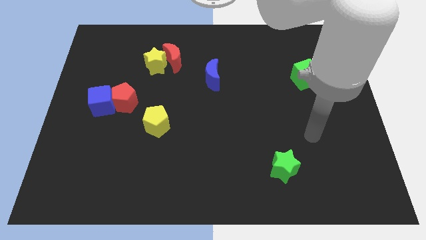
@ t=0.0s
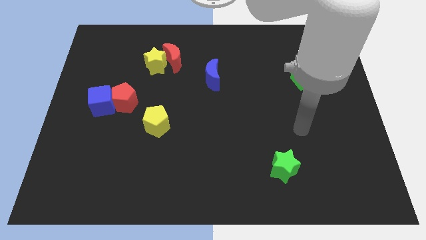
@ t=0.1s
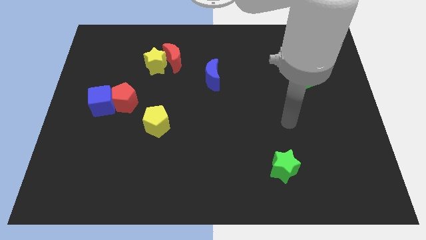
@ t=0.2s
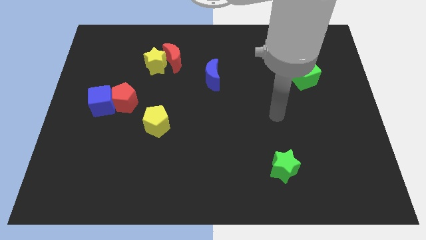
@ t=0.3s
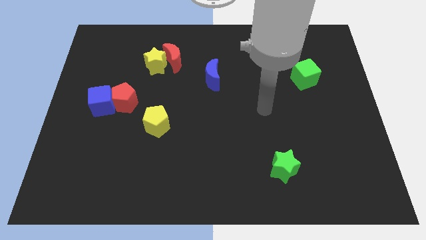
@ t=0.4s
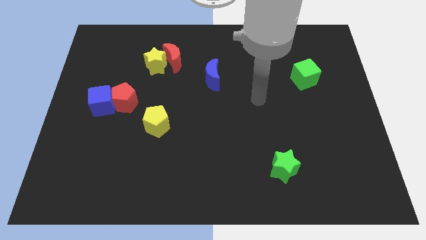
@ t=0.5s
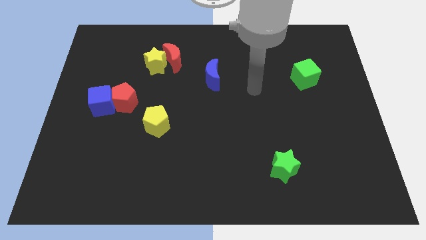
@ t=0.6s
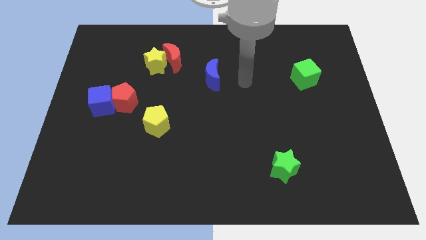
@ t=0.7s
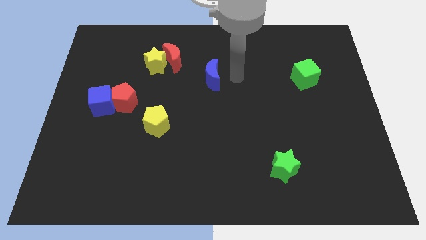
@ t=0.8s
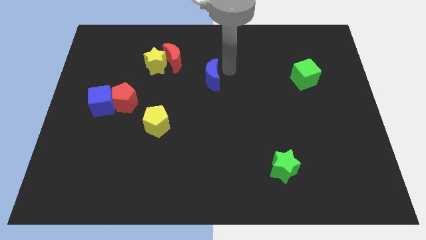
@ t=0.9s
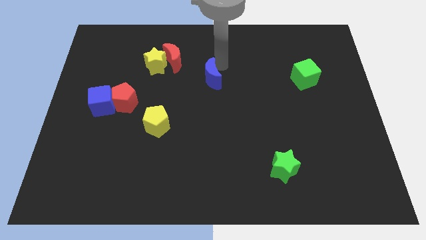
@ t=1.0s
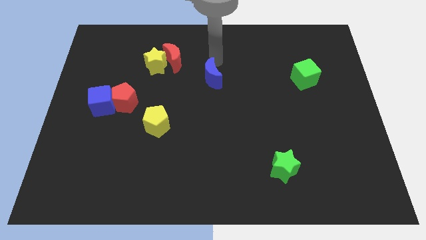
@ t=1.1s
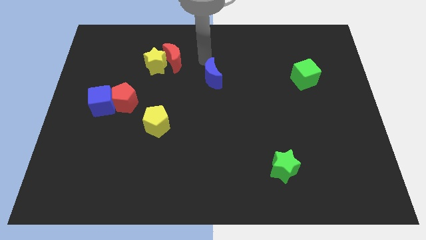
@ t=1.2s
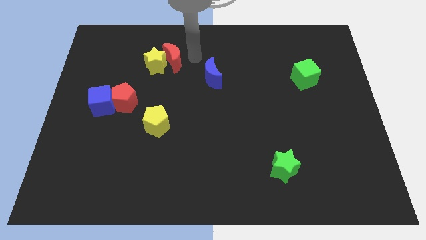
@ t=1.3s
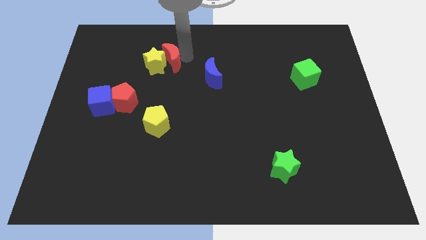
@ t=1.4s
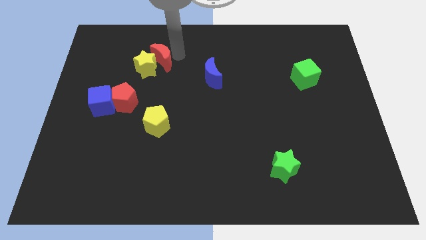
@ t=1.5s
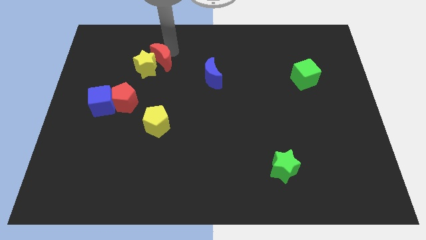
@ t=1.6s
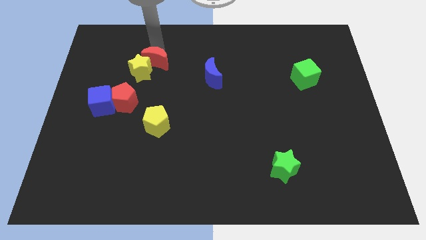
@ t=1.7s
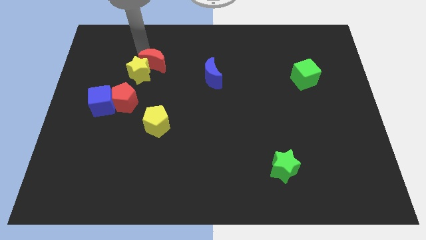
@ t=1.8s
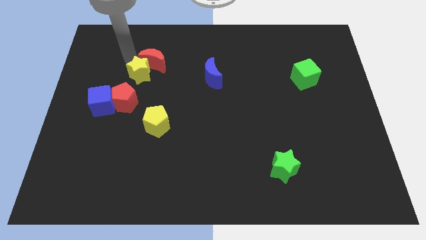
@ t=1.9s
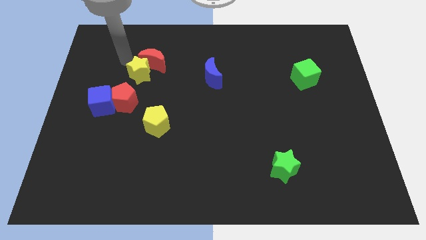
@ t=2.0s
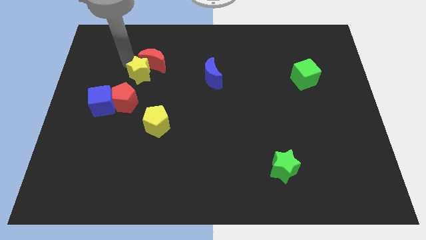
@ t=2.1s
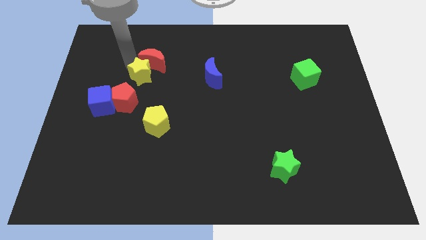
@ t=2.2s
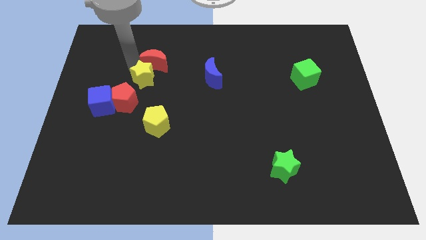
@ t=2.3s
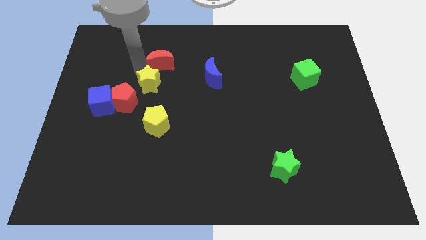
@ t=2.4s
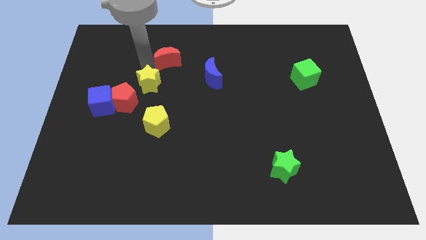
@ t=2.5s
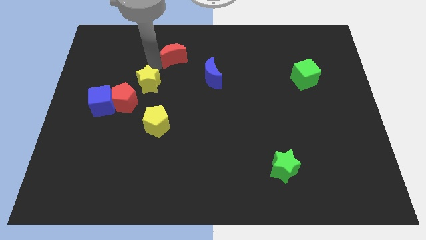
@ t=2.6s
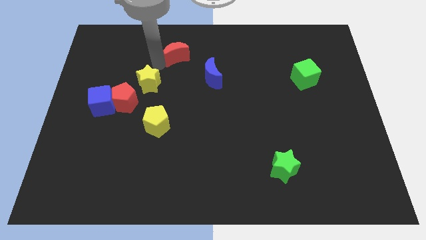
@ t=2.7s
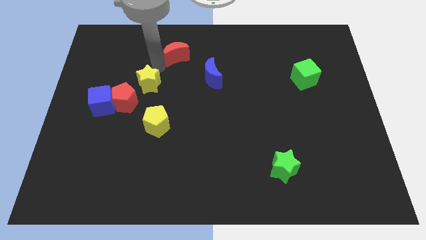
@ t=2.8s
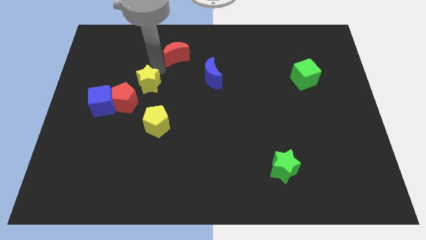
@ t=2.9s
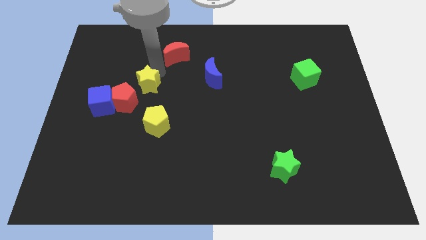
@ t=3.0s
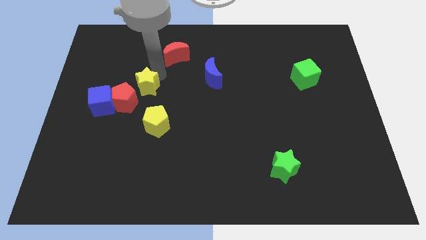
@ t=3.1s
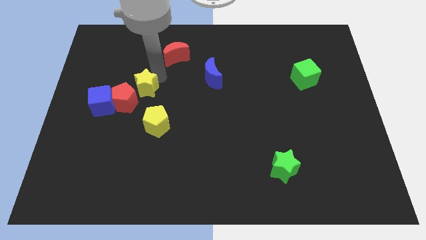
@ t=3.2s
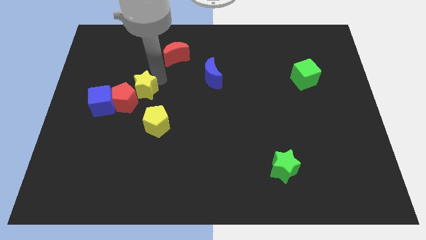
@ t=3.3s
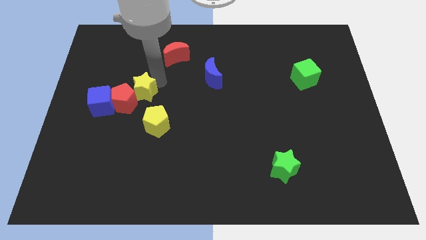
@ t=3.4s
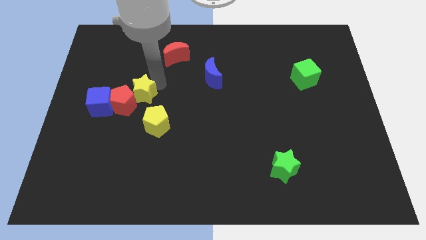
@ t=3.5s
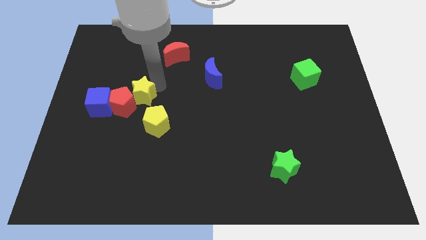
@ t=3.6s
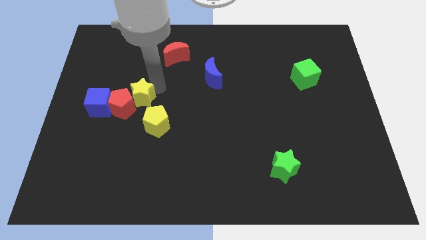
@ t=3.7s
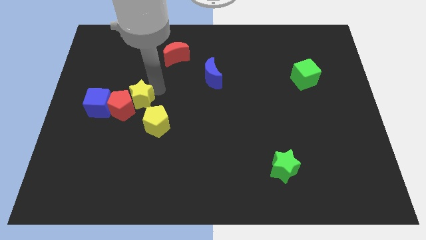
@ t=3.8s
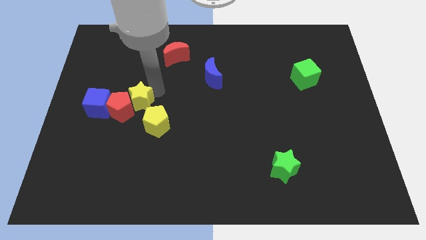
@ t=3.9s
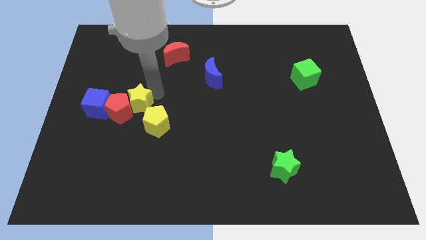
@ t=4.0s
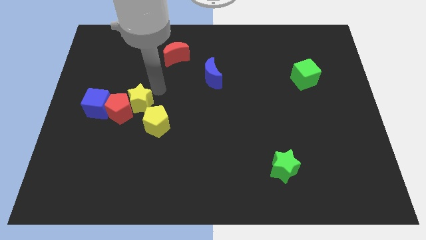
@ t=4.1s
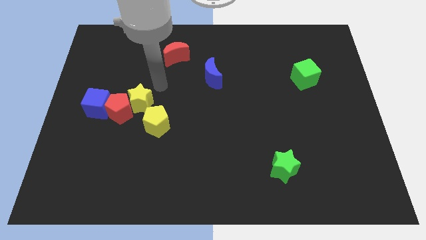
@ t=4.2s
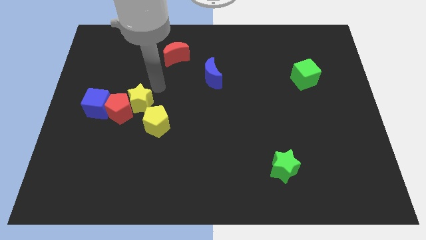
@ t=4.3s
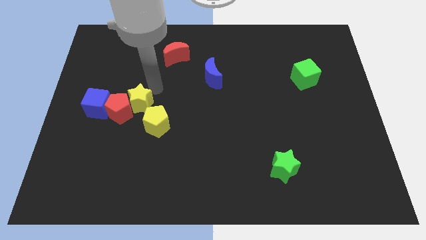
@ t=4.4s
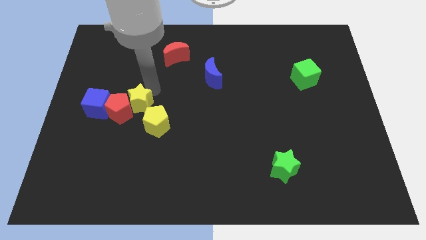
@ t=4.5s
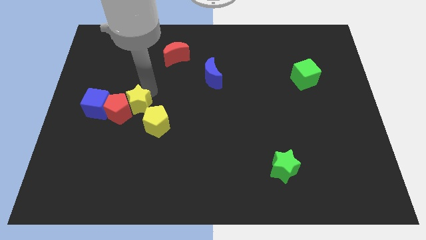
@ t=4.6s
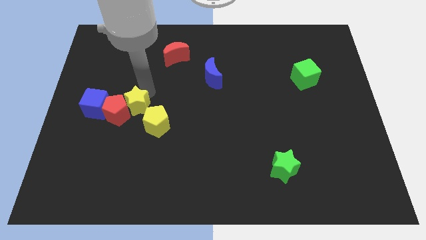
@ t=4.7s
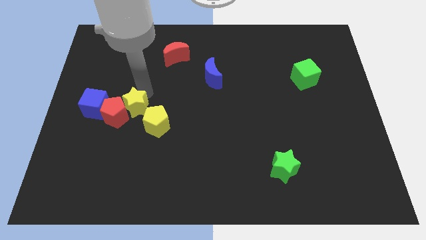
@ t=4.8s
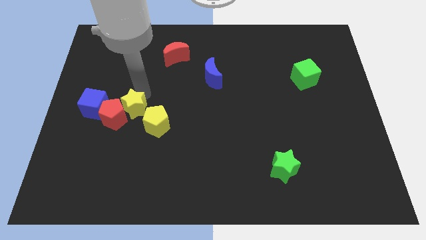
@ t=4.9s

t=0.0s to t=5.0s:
move the yellow star left of the yellow pentagon

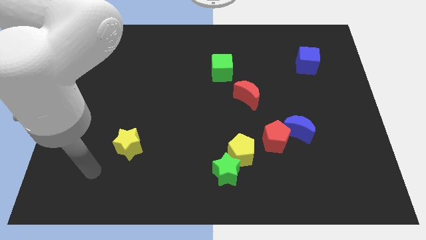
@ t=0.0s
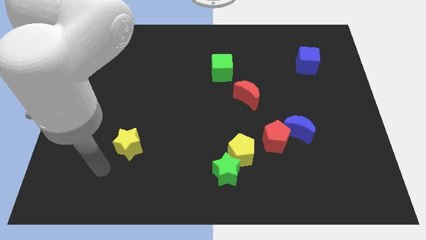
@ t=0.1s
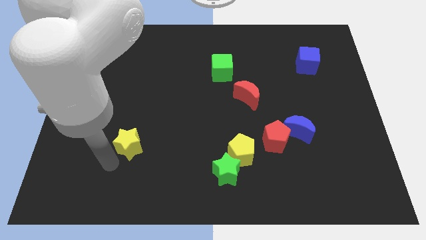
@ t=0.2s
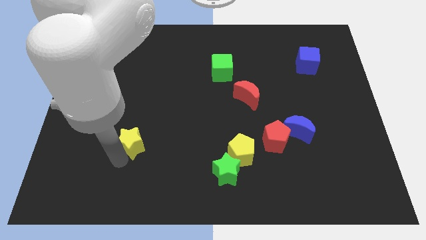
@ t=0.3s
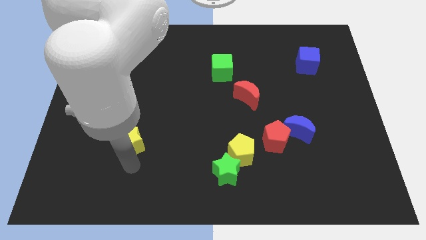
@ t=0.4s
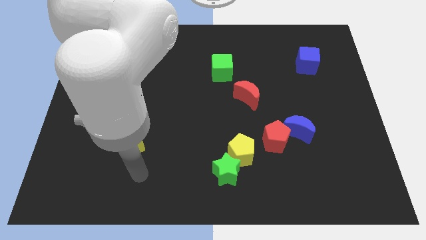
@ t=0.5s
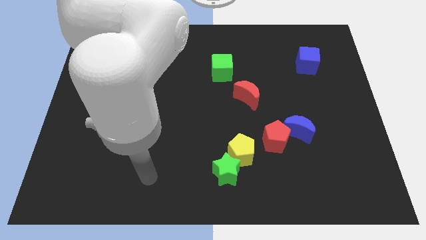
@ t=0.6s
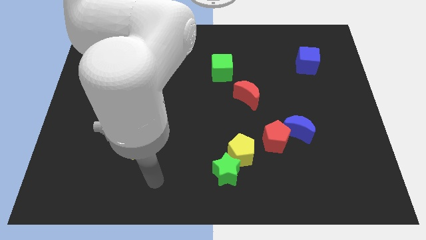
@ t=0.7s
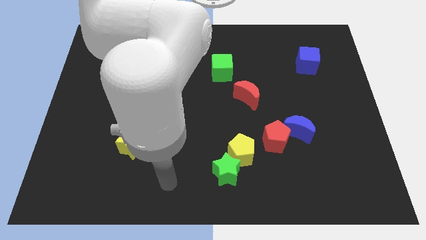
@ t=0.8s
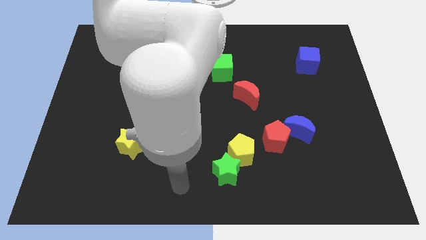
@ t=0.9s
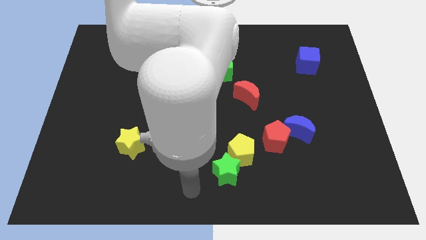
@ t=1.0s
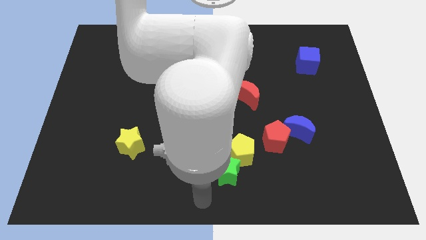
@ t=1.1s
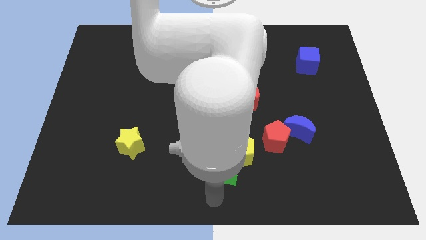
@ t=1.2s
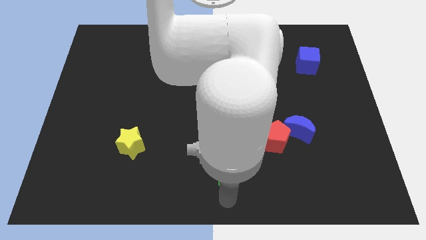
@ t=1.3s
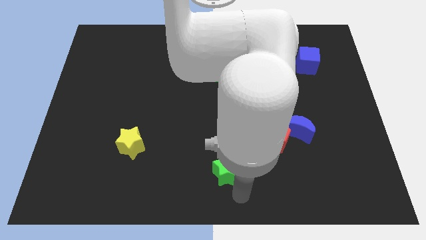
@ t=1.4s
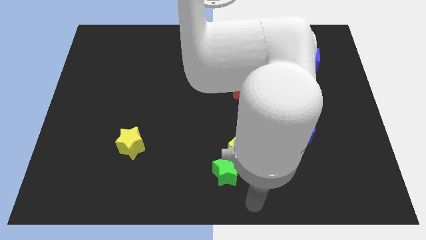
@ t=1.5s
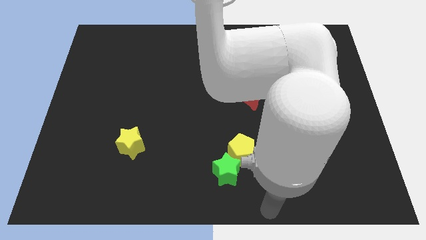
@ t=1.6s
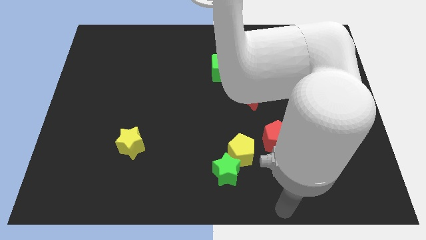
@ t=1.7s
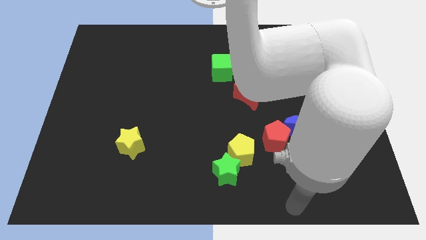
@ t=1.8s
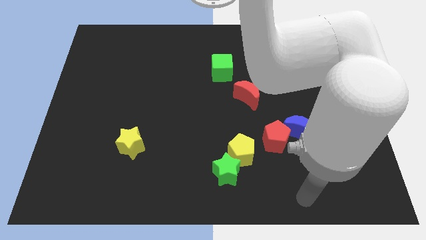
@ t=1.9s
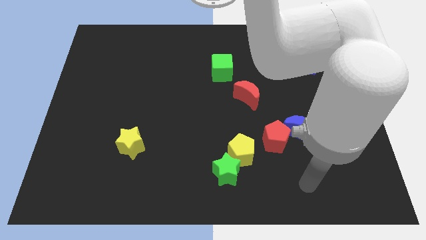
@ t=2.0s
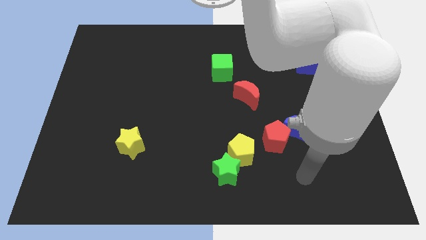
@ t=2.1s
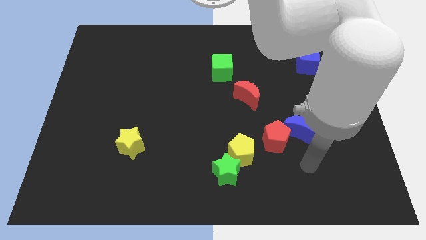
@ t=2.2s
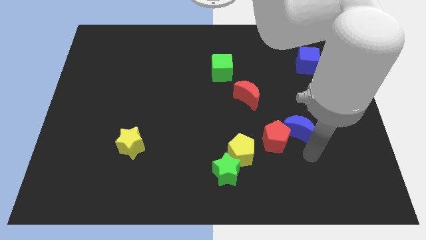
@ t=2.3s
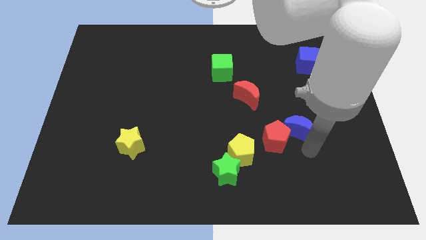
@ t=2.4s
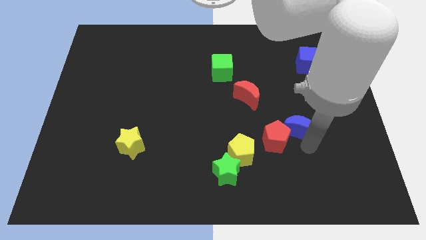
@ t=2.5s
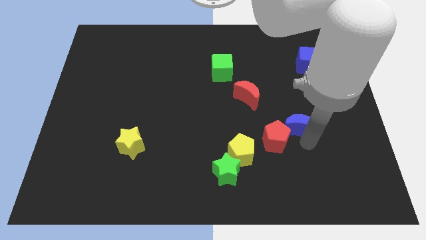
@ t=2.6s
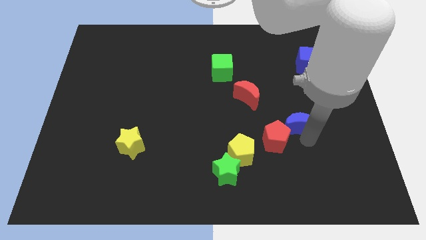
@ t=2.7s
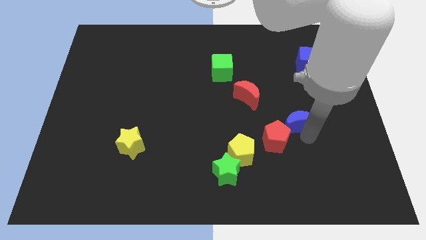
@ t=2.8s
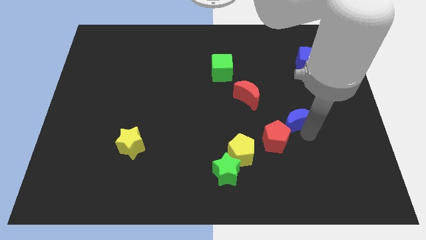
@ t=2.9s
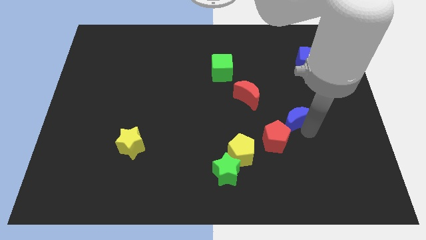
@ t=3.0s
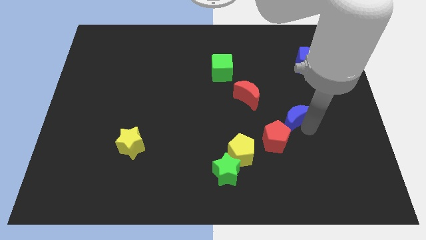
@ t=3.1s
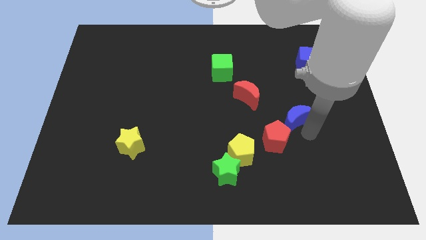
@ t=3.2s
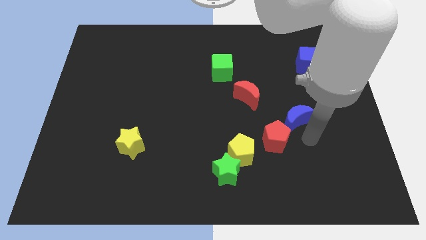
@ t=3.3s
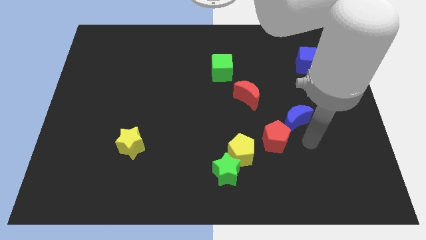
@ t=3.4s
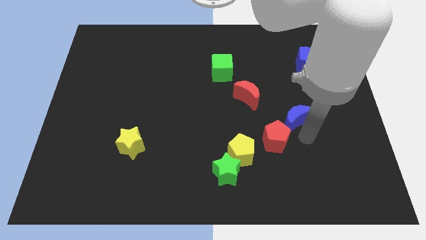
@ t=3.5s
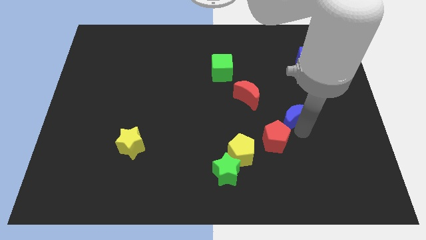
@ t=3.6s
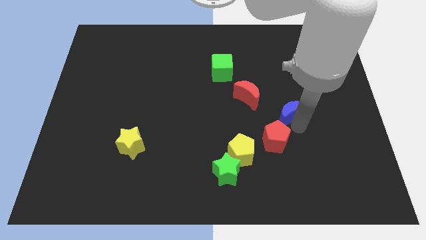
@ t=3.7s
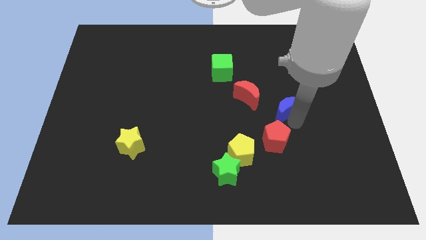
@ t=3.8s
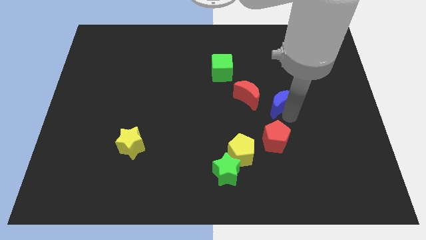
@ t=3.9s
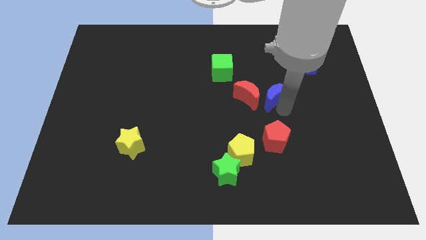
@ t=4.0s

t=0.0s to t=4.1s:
slide the blue moon diagonally up and to the right of the red moon
